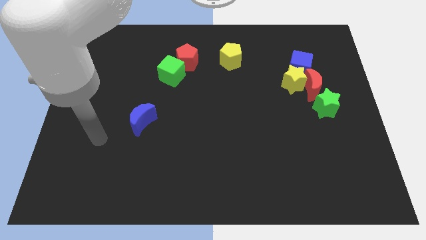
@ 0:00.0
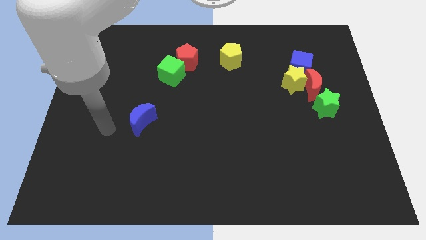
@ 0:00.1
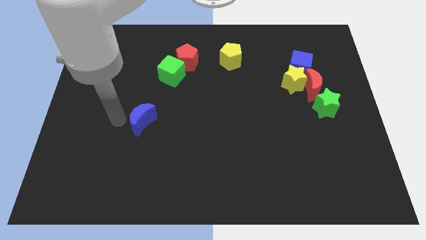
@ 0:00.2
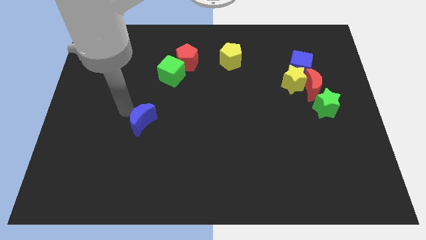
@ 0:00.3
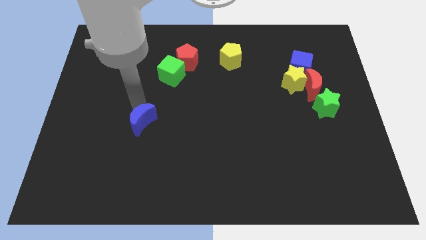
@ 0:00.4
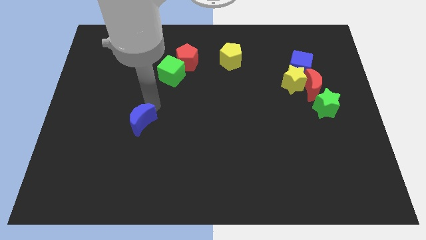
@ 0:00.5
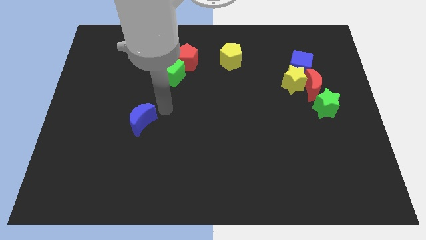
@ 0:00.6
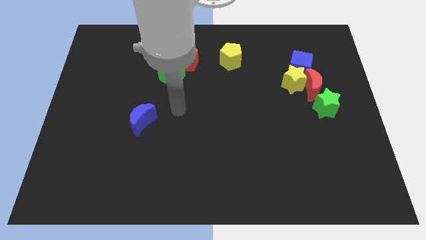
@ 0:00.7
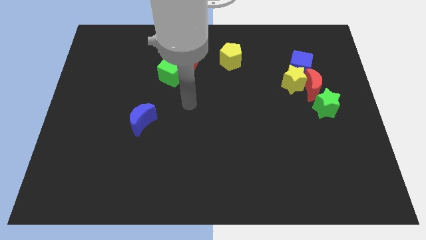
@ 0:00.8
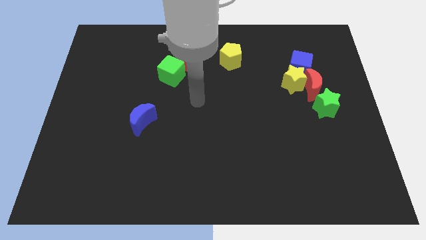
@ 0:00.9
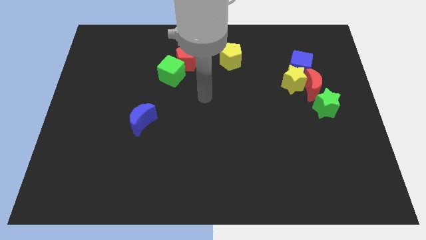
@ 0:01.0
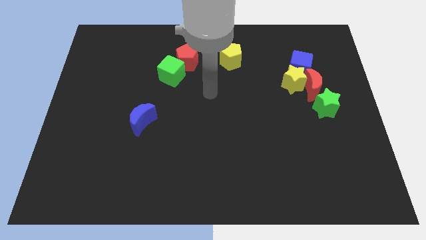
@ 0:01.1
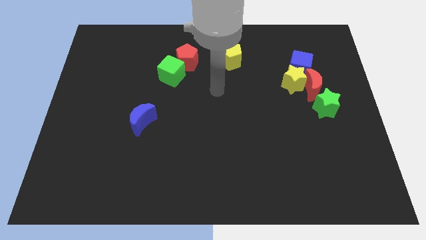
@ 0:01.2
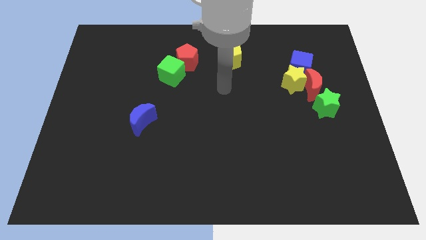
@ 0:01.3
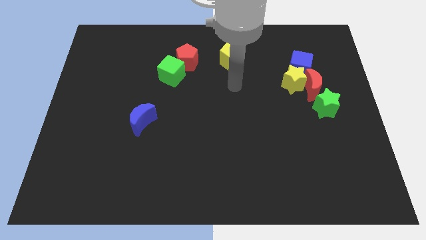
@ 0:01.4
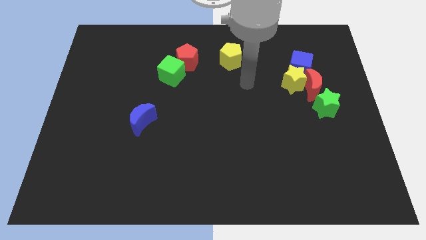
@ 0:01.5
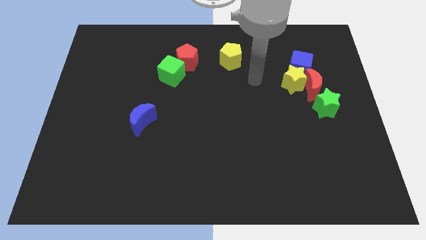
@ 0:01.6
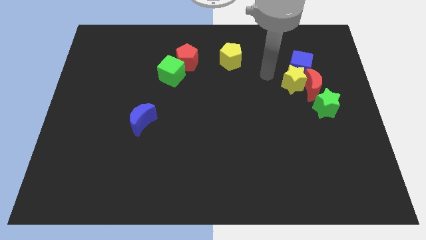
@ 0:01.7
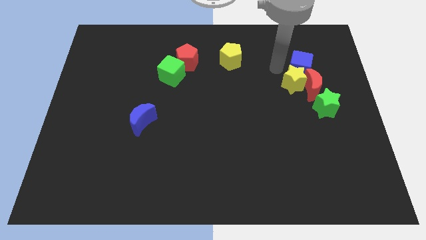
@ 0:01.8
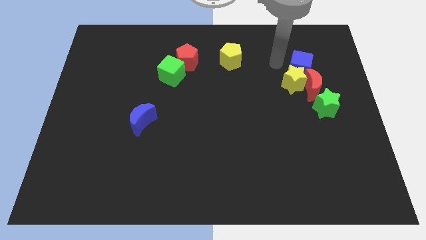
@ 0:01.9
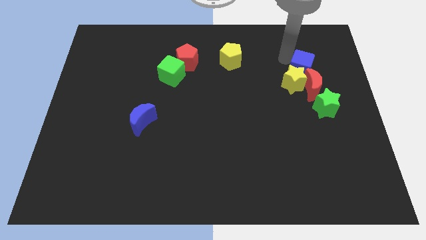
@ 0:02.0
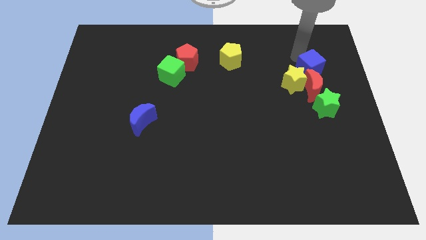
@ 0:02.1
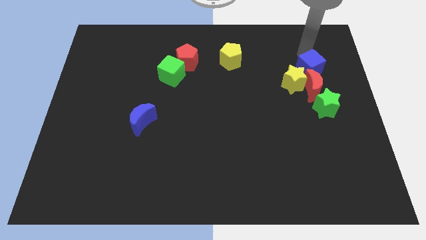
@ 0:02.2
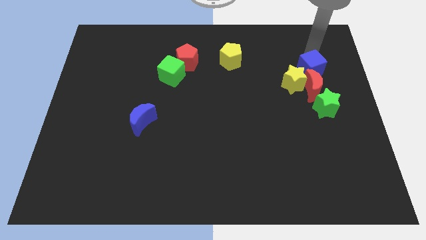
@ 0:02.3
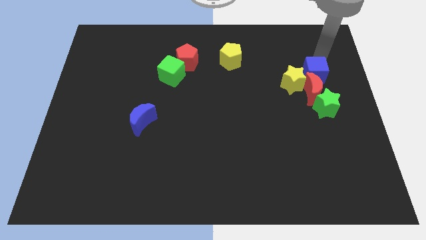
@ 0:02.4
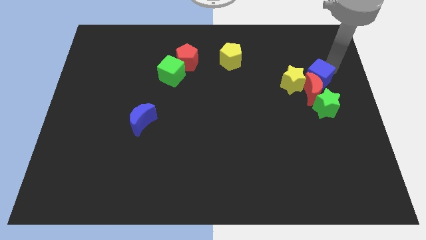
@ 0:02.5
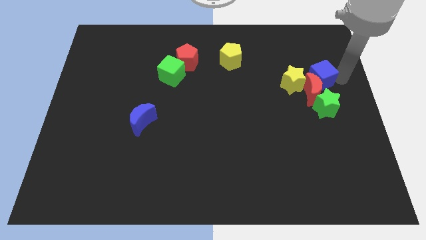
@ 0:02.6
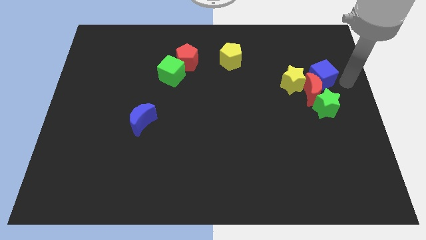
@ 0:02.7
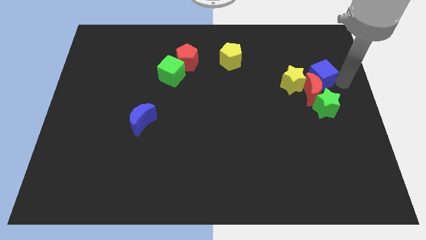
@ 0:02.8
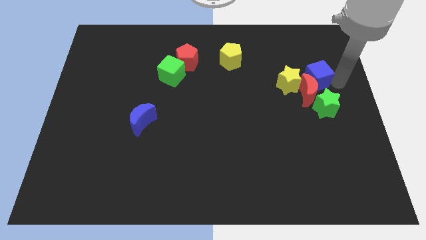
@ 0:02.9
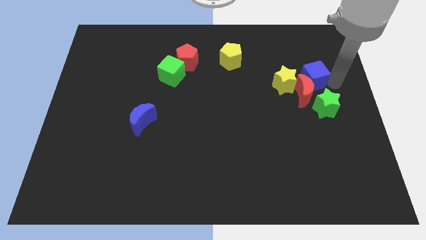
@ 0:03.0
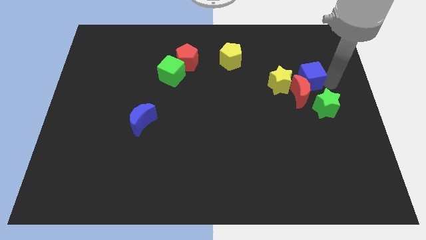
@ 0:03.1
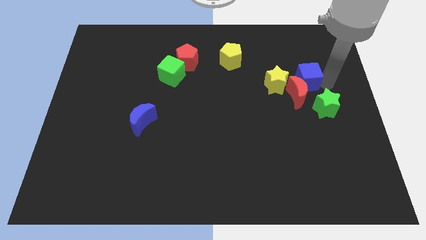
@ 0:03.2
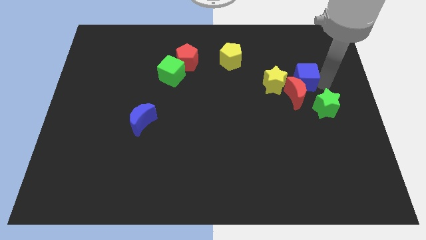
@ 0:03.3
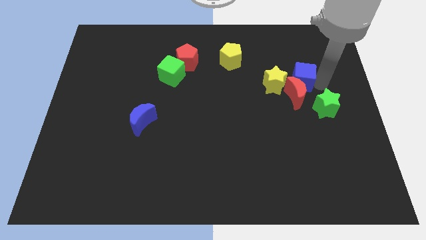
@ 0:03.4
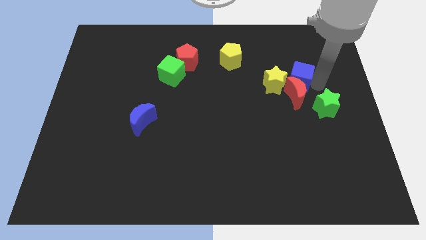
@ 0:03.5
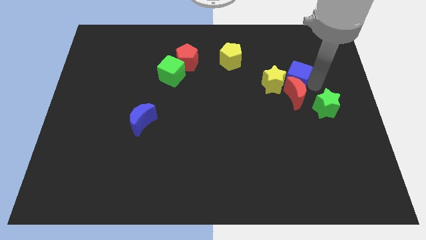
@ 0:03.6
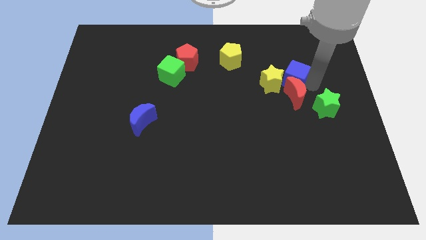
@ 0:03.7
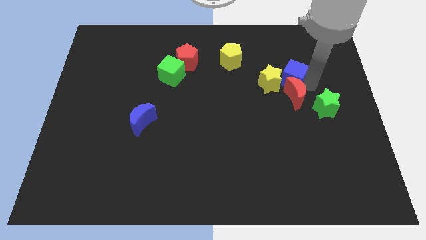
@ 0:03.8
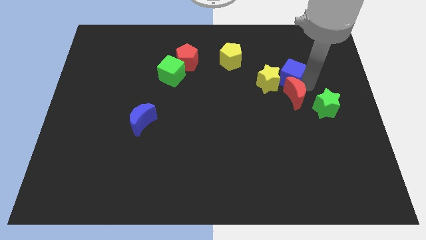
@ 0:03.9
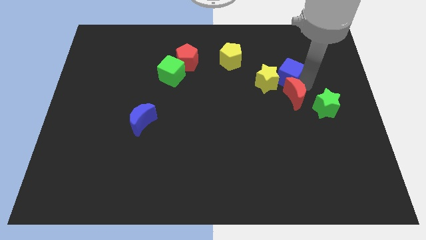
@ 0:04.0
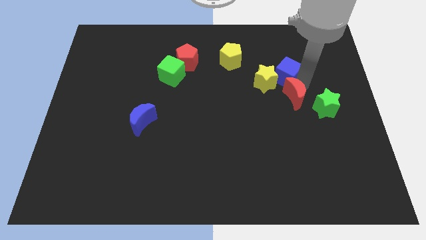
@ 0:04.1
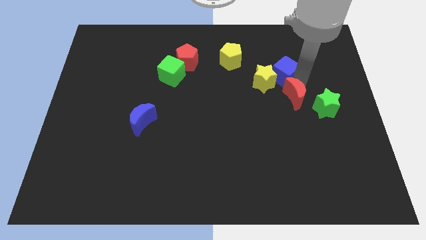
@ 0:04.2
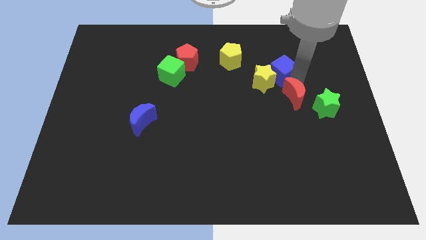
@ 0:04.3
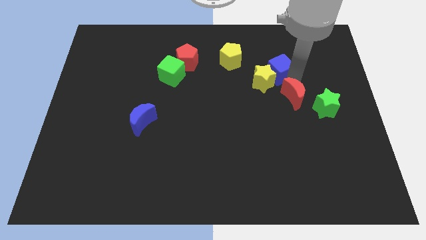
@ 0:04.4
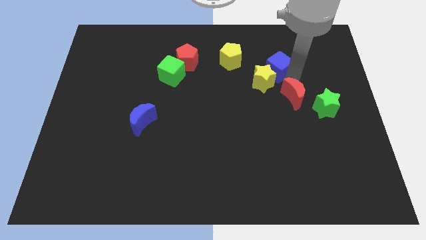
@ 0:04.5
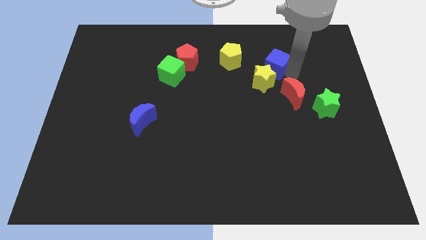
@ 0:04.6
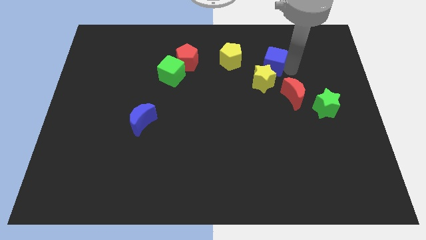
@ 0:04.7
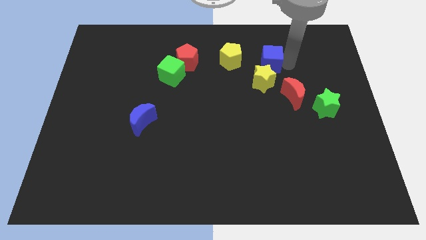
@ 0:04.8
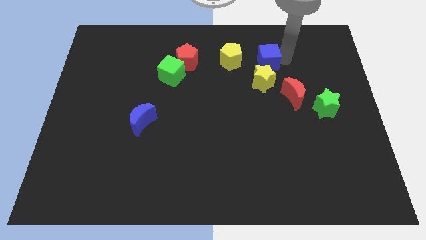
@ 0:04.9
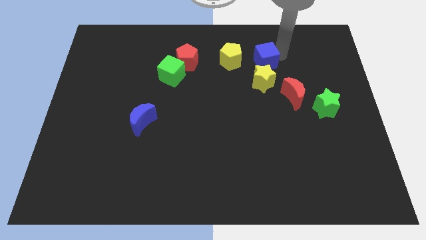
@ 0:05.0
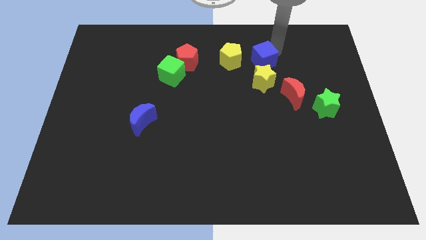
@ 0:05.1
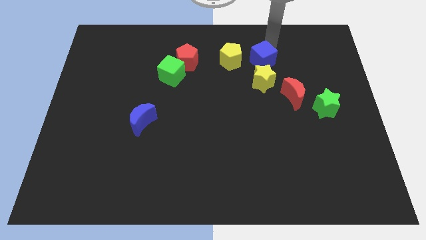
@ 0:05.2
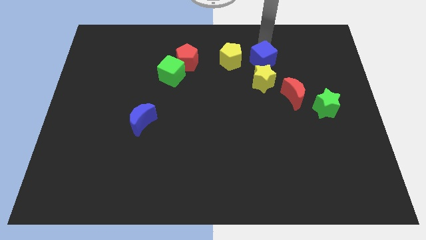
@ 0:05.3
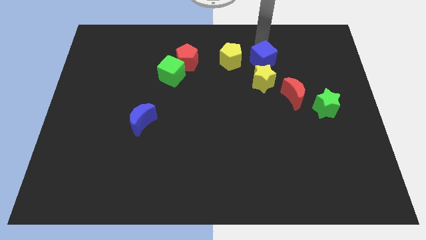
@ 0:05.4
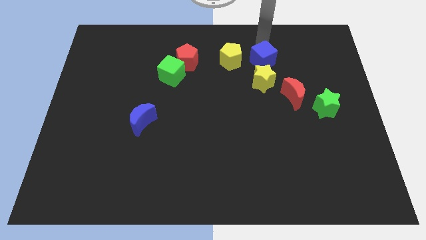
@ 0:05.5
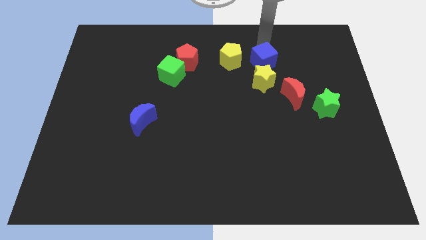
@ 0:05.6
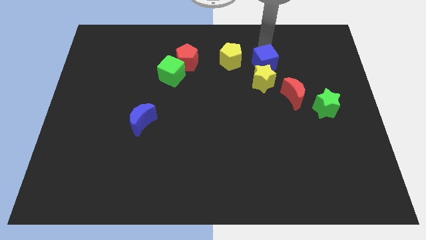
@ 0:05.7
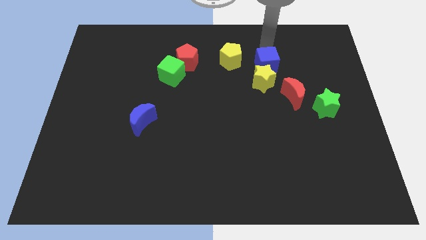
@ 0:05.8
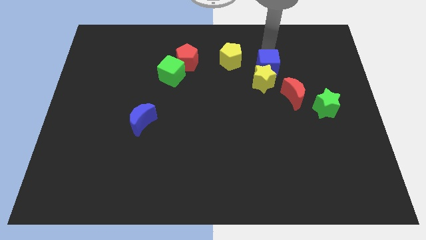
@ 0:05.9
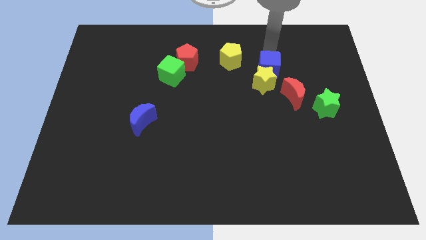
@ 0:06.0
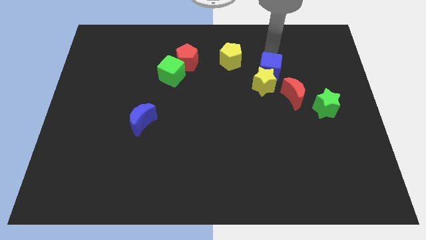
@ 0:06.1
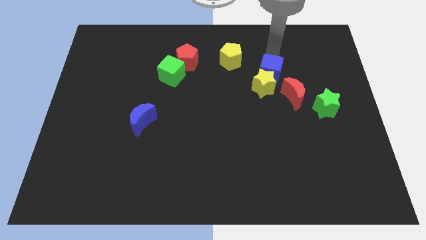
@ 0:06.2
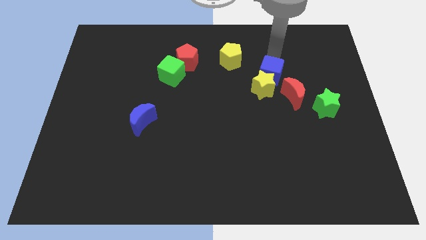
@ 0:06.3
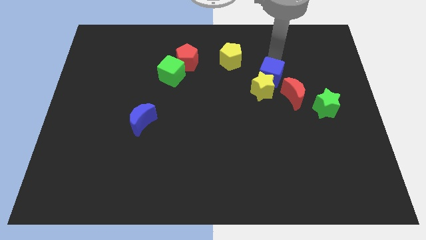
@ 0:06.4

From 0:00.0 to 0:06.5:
slide the blue cube a little bit diagonally downwards and left

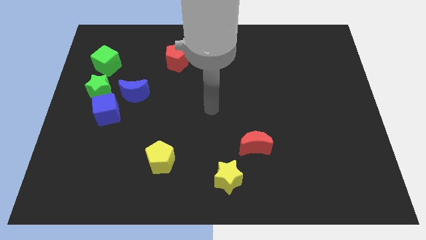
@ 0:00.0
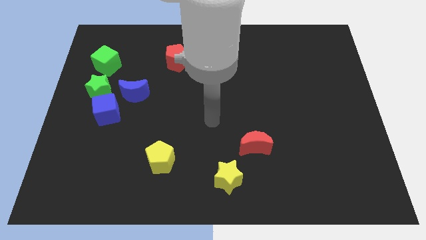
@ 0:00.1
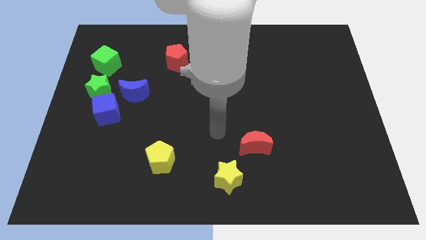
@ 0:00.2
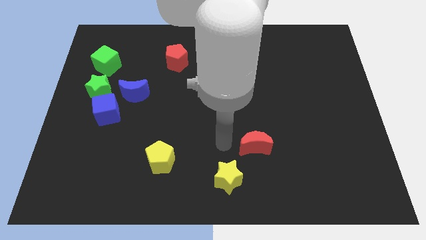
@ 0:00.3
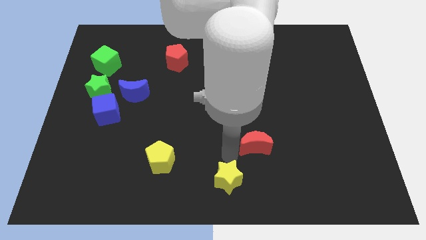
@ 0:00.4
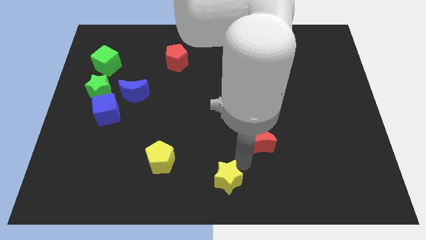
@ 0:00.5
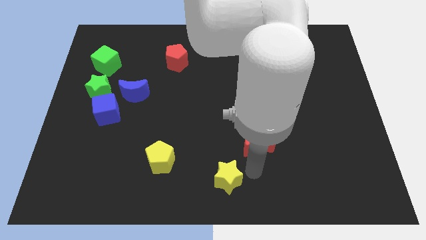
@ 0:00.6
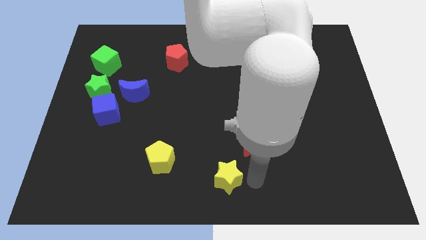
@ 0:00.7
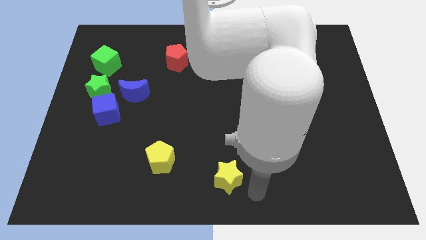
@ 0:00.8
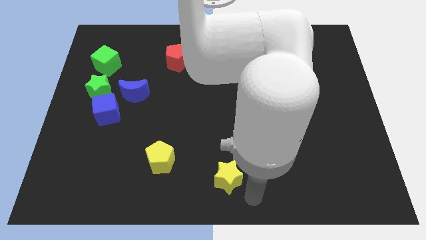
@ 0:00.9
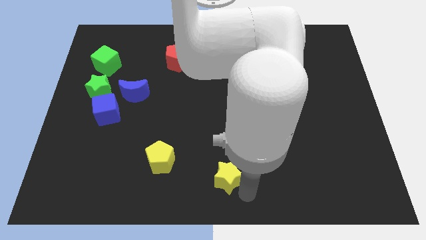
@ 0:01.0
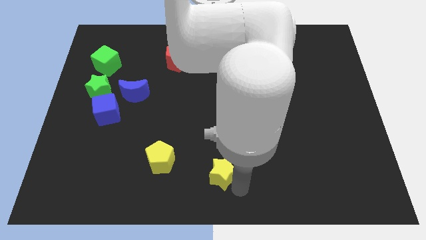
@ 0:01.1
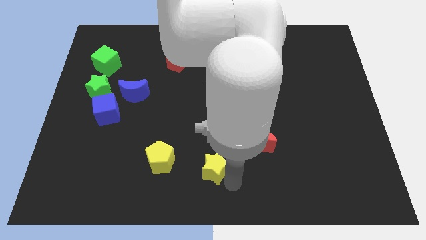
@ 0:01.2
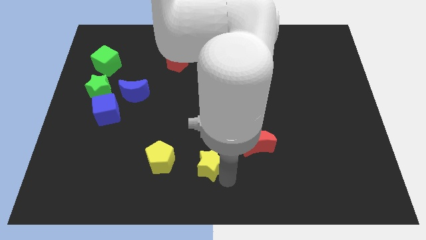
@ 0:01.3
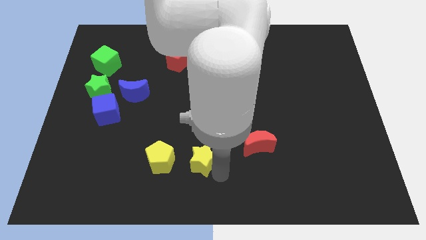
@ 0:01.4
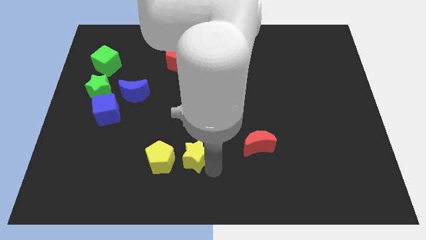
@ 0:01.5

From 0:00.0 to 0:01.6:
move the yellow star a bit up and to the left diagonally
